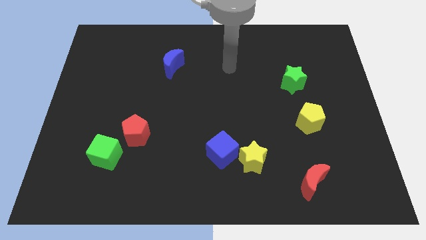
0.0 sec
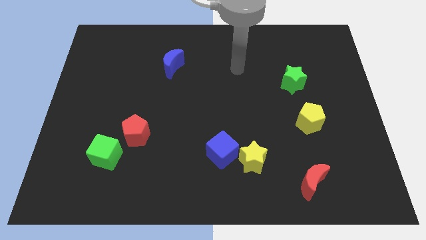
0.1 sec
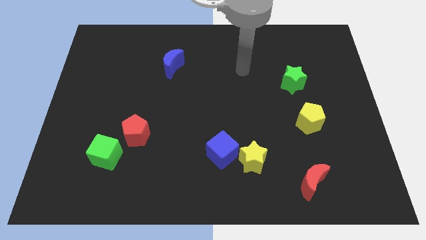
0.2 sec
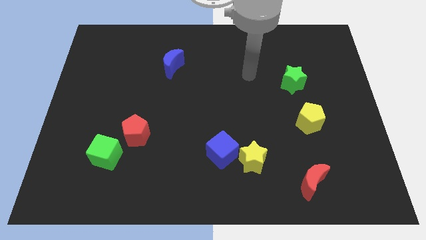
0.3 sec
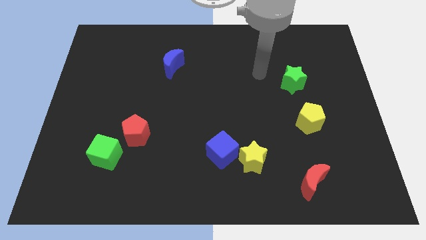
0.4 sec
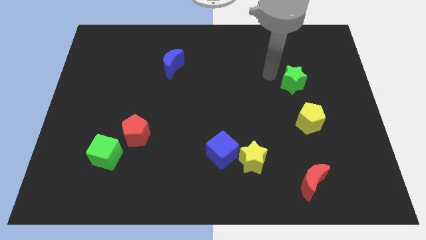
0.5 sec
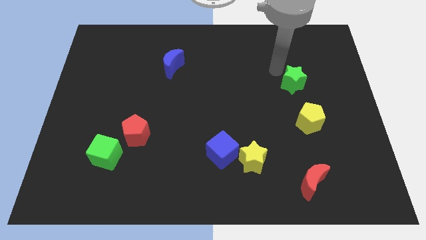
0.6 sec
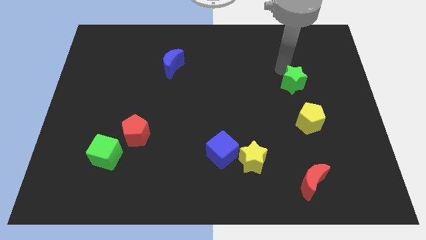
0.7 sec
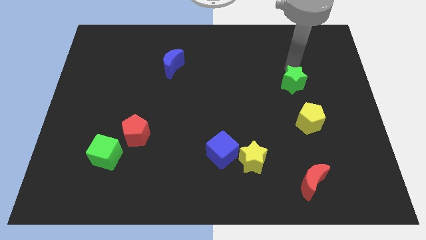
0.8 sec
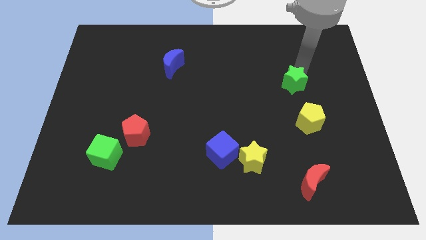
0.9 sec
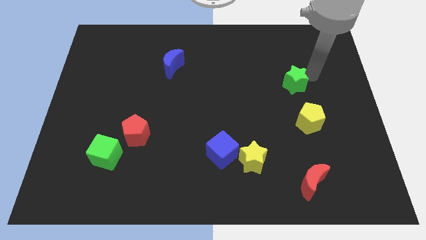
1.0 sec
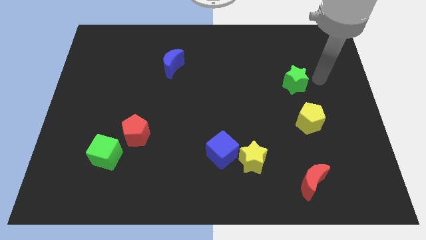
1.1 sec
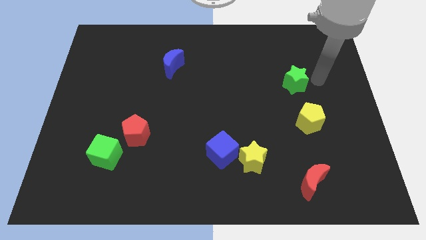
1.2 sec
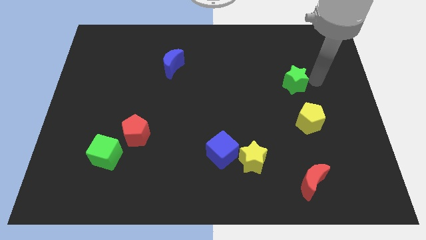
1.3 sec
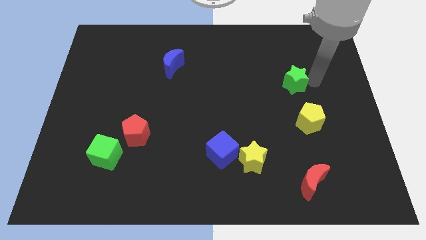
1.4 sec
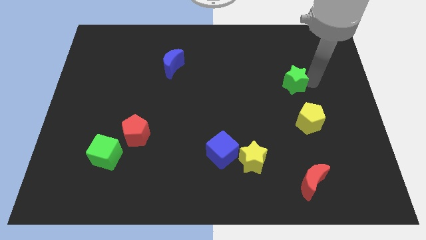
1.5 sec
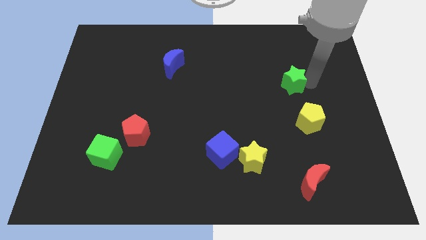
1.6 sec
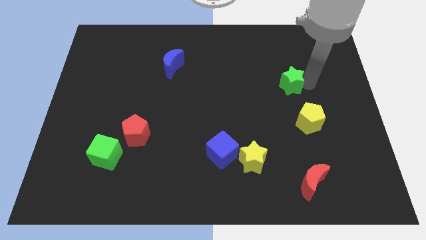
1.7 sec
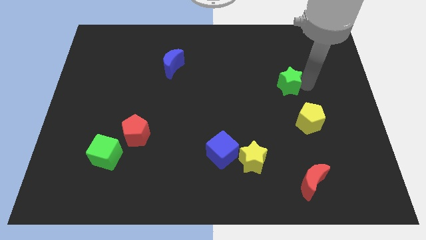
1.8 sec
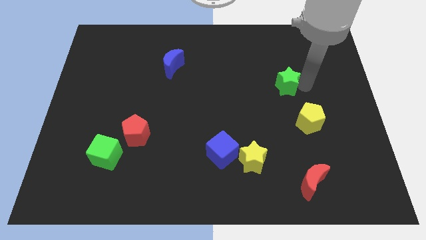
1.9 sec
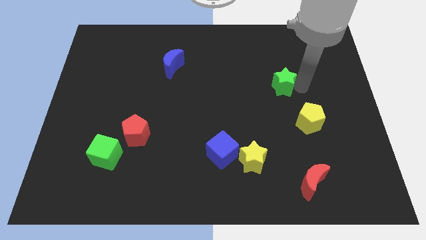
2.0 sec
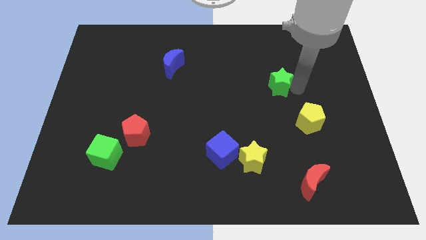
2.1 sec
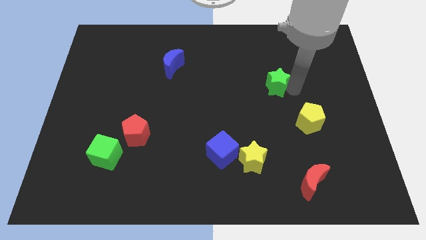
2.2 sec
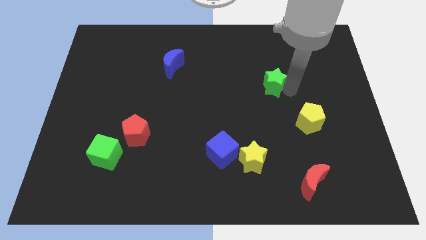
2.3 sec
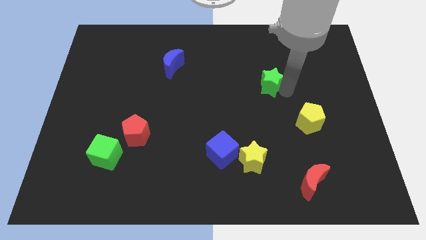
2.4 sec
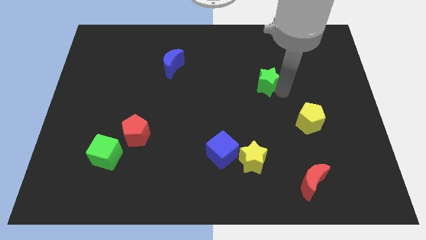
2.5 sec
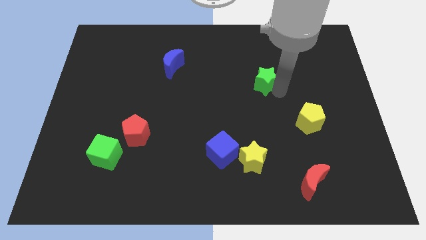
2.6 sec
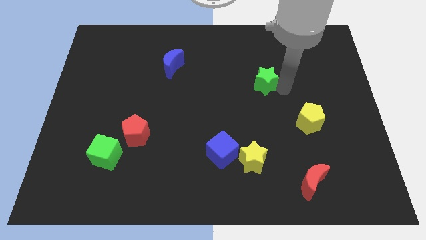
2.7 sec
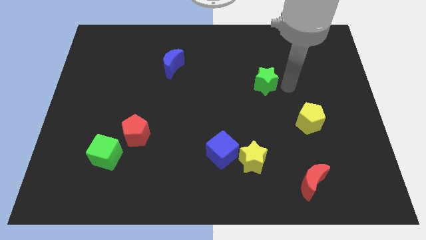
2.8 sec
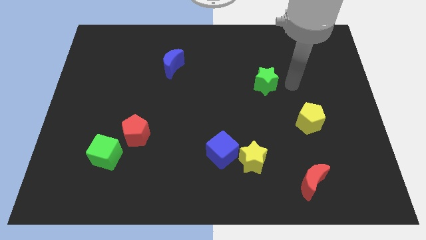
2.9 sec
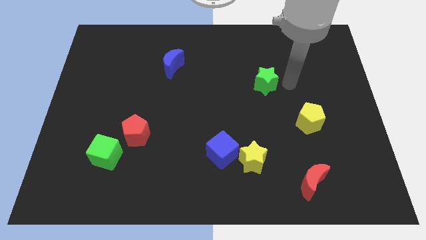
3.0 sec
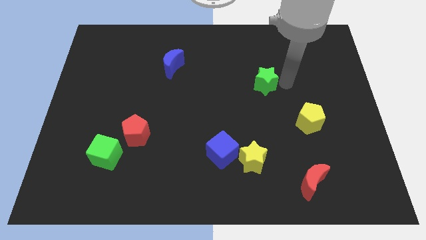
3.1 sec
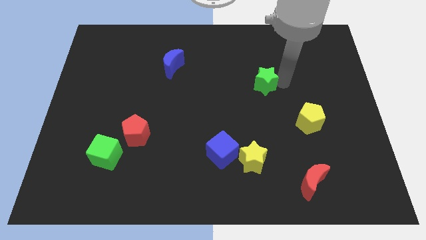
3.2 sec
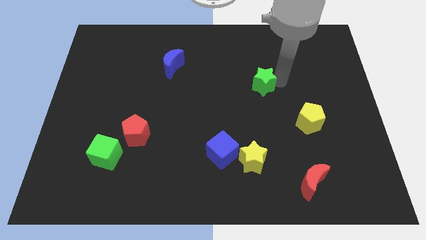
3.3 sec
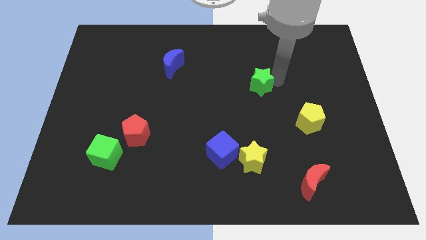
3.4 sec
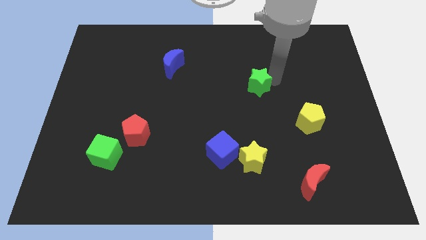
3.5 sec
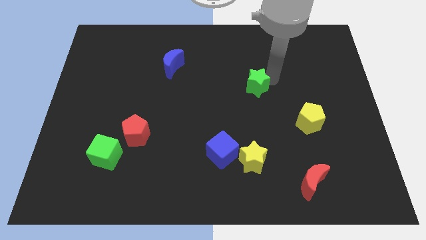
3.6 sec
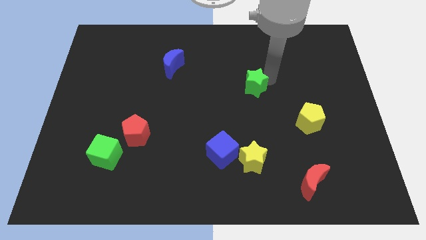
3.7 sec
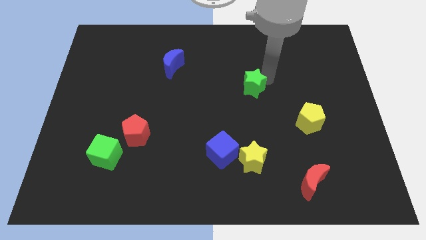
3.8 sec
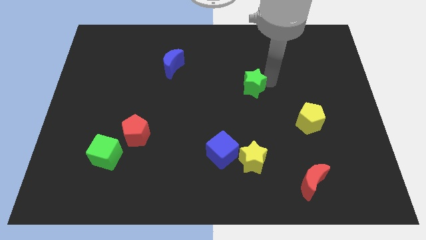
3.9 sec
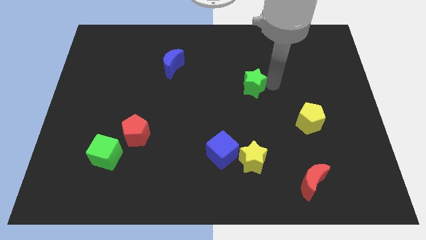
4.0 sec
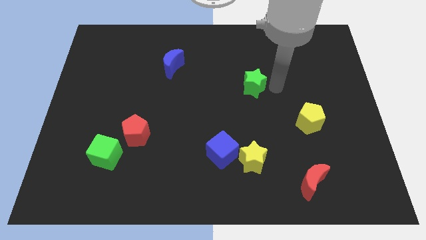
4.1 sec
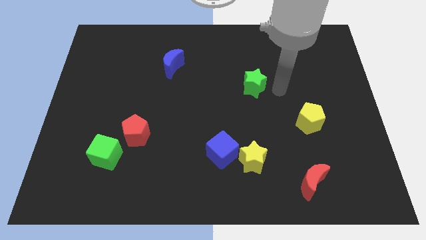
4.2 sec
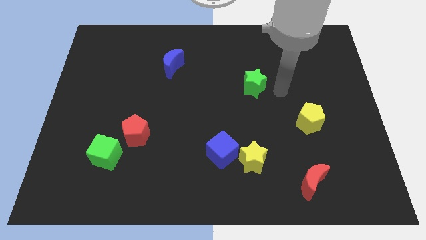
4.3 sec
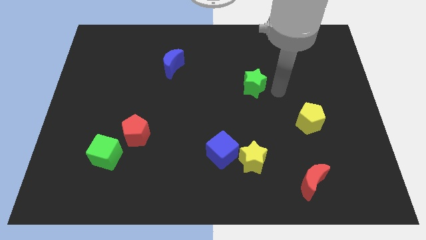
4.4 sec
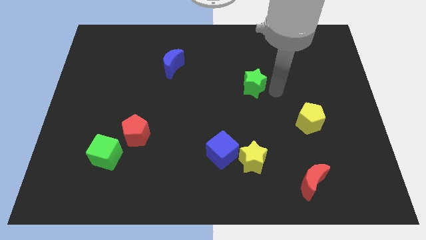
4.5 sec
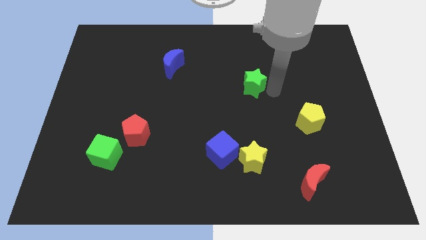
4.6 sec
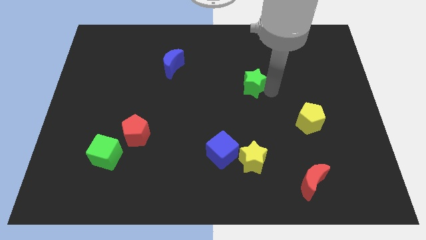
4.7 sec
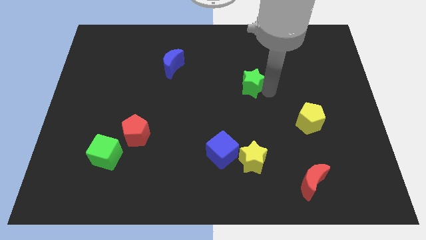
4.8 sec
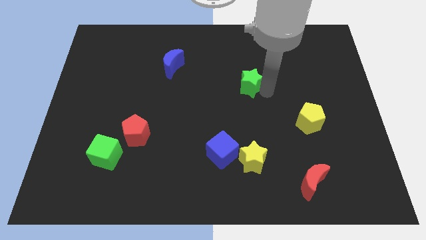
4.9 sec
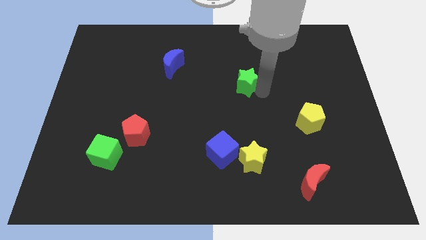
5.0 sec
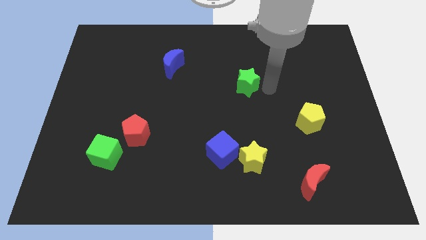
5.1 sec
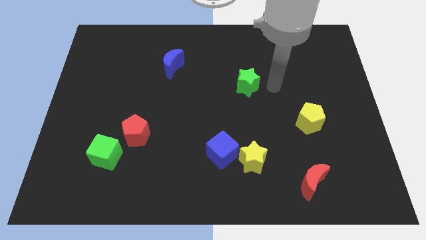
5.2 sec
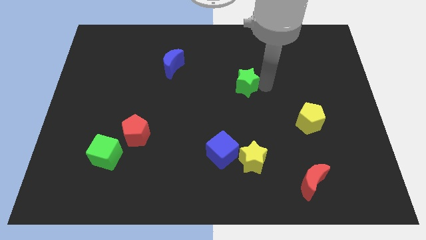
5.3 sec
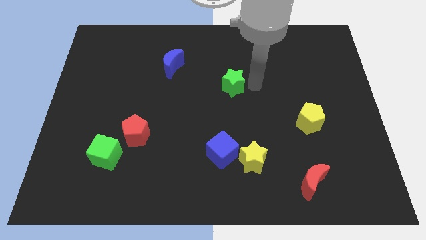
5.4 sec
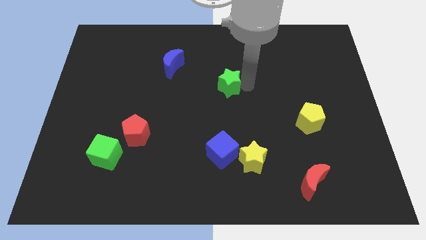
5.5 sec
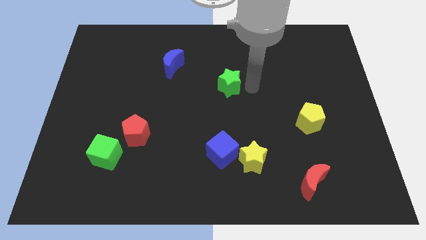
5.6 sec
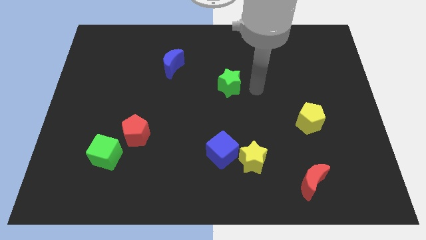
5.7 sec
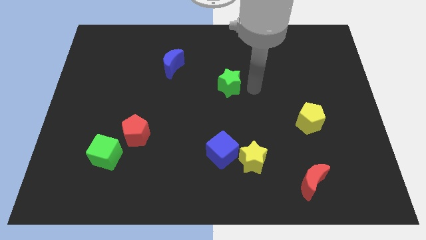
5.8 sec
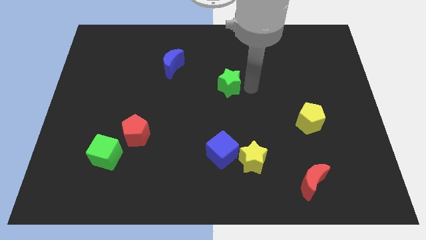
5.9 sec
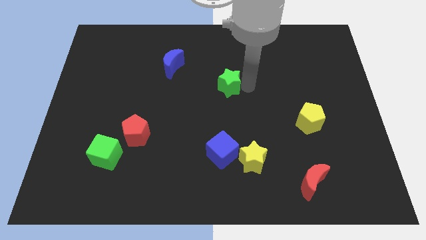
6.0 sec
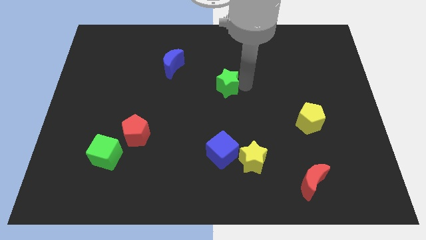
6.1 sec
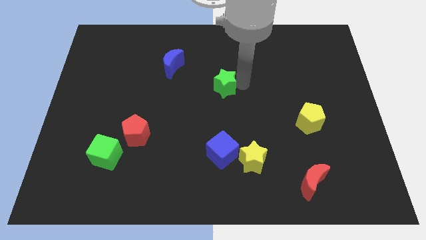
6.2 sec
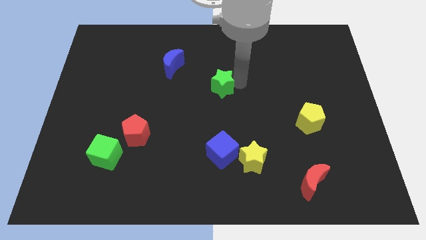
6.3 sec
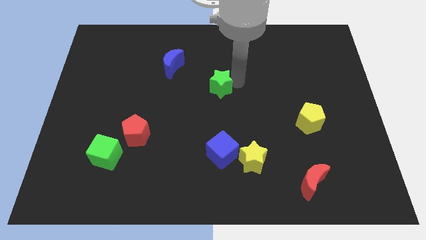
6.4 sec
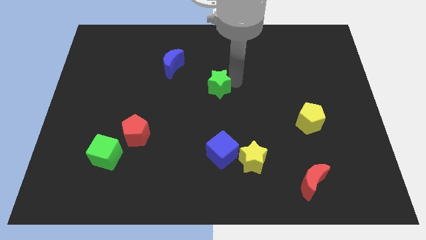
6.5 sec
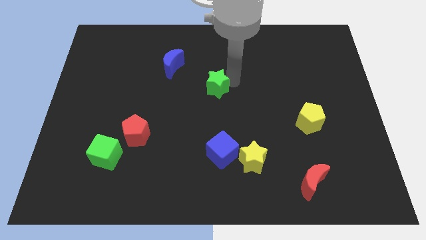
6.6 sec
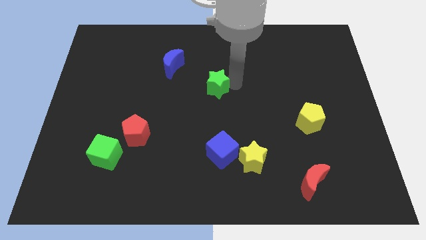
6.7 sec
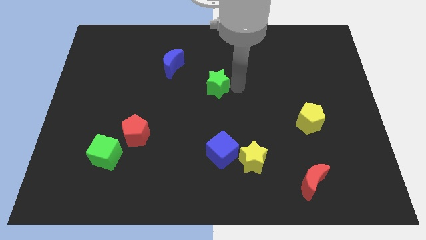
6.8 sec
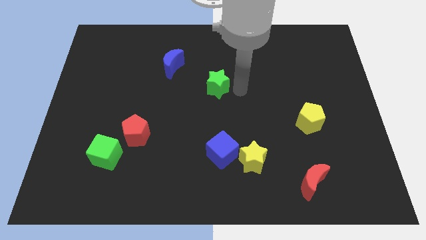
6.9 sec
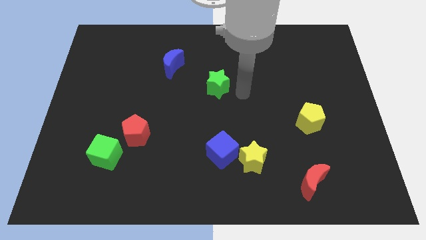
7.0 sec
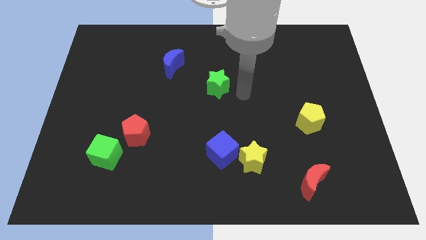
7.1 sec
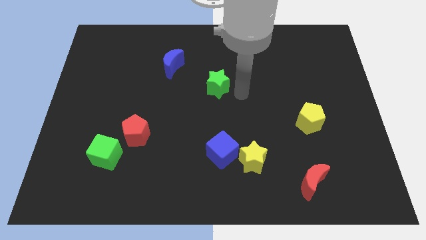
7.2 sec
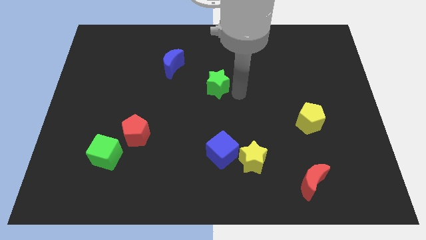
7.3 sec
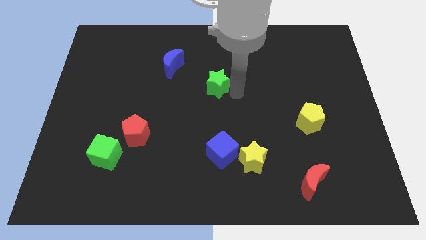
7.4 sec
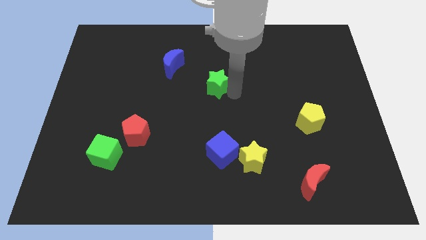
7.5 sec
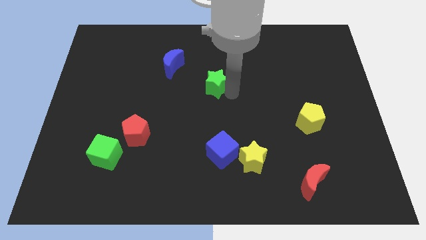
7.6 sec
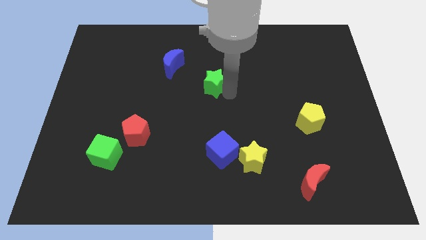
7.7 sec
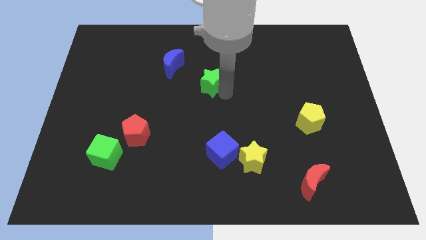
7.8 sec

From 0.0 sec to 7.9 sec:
slide the green star left

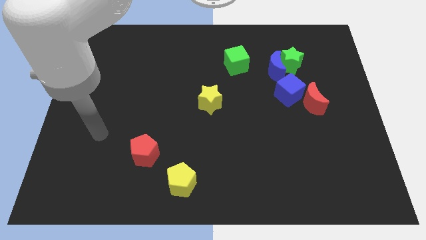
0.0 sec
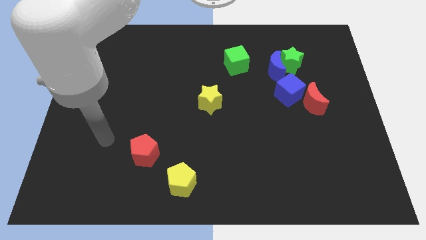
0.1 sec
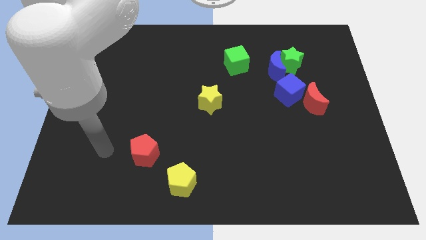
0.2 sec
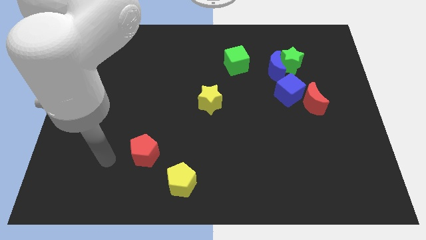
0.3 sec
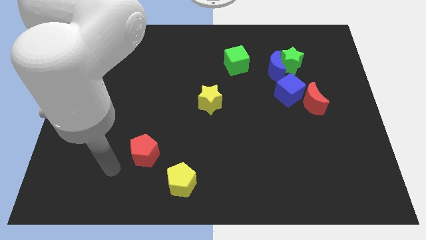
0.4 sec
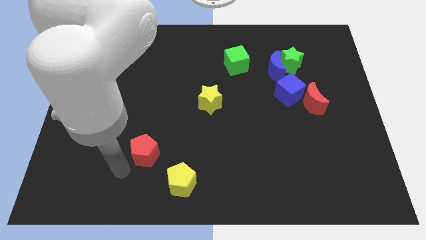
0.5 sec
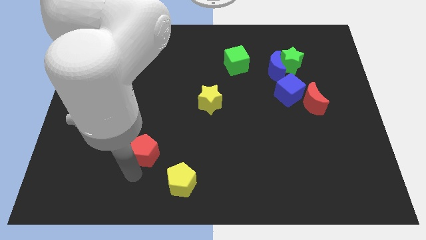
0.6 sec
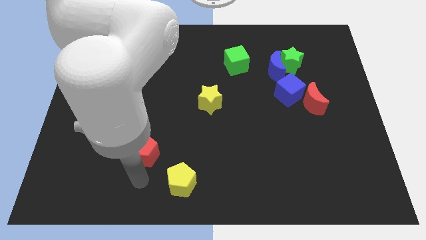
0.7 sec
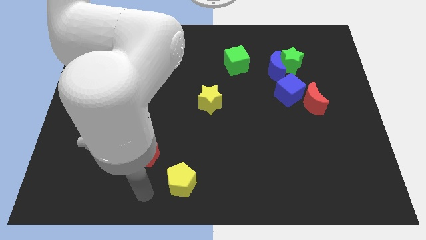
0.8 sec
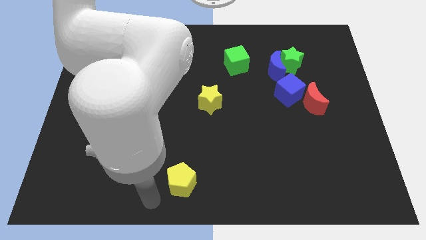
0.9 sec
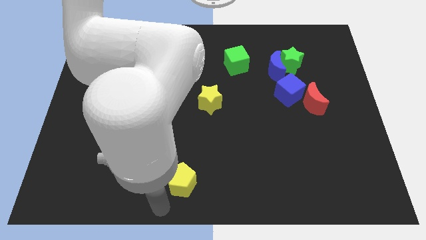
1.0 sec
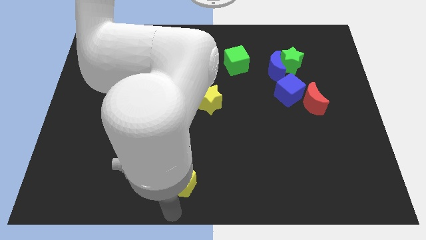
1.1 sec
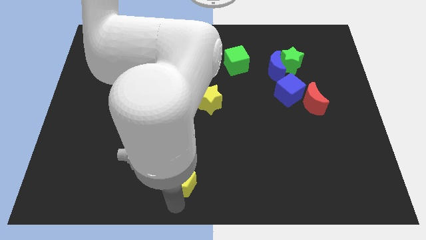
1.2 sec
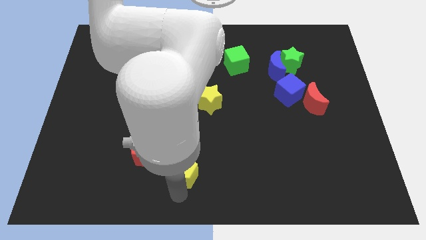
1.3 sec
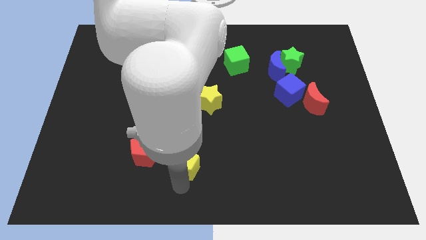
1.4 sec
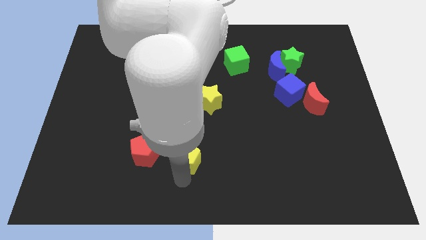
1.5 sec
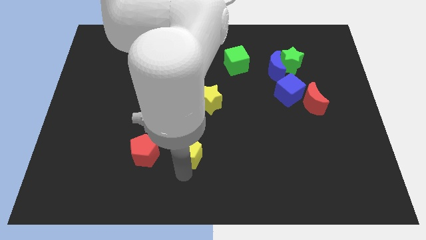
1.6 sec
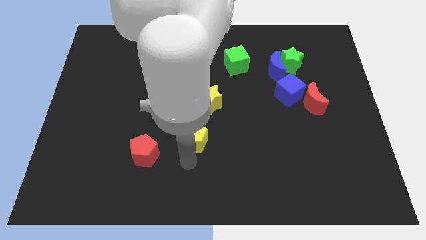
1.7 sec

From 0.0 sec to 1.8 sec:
slide the yellow pentagon a little bit upwards
